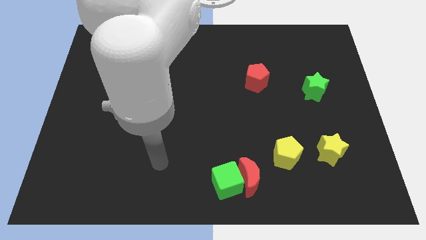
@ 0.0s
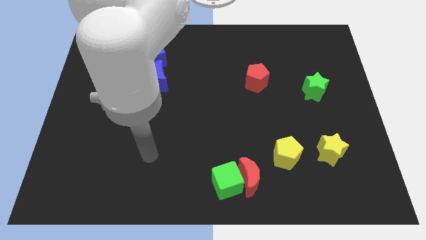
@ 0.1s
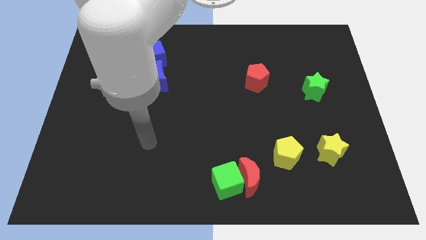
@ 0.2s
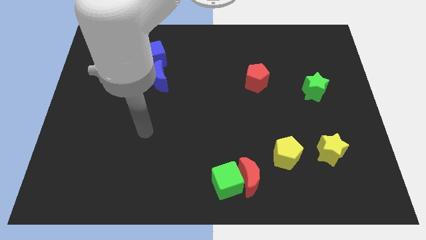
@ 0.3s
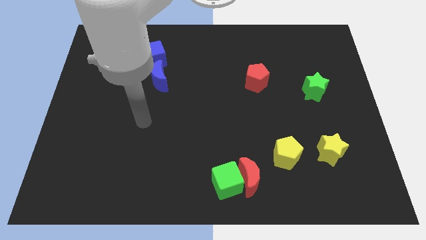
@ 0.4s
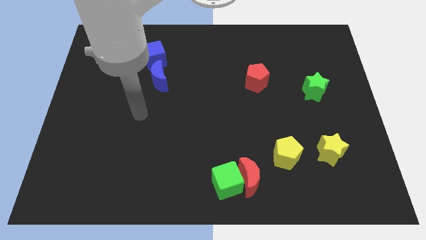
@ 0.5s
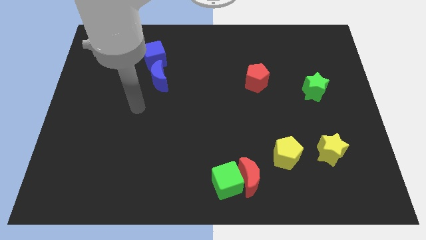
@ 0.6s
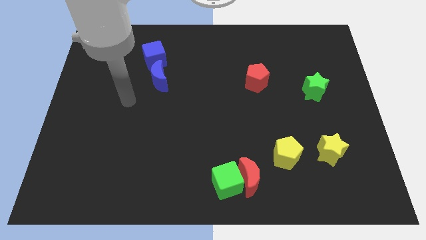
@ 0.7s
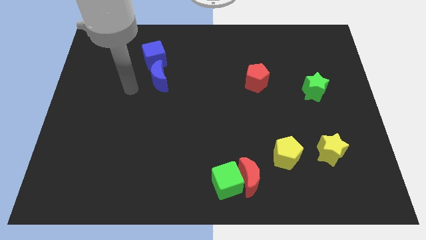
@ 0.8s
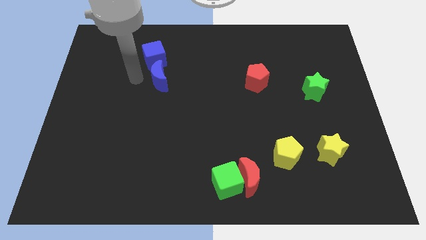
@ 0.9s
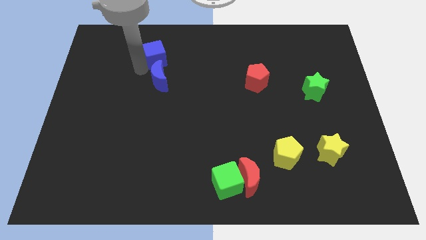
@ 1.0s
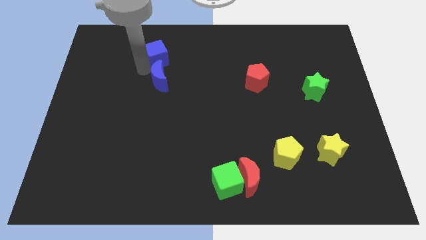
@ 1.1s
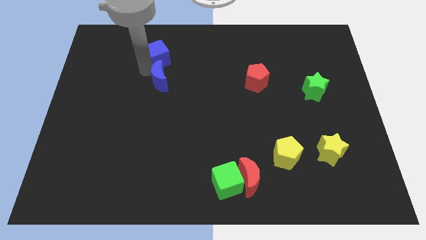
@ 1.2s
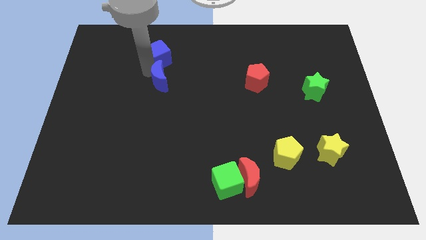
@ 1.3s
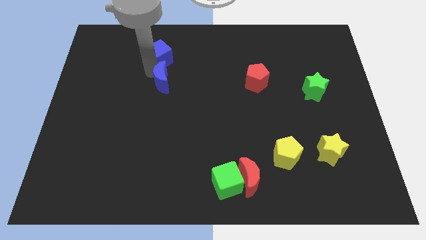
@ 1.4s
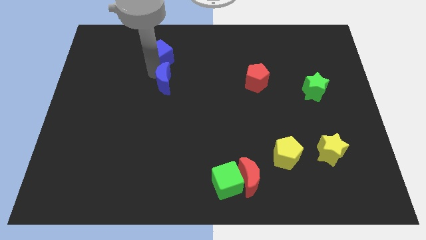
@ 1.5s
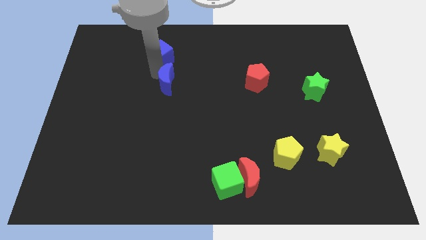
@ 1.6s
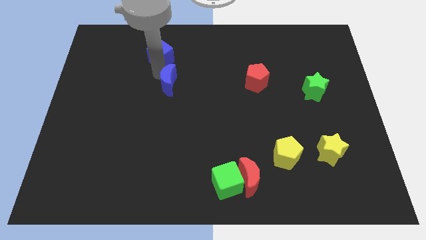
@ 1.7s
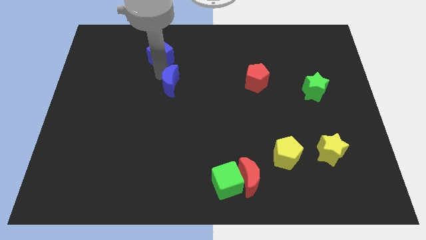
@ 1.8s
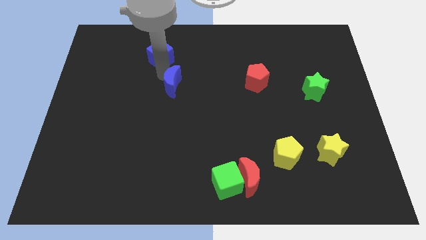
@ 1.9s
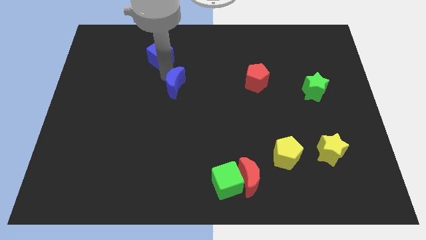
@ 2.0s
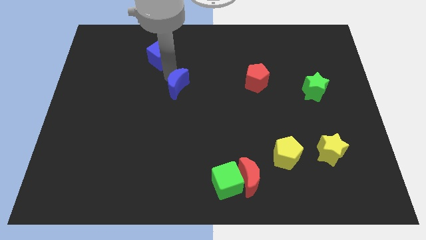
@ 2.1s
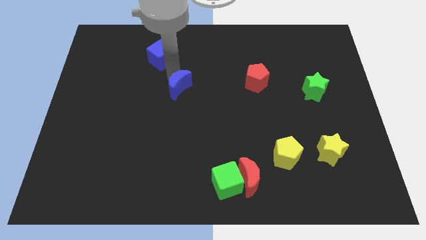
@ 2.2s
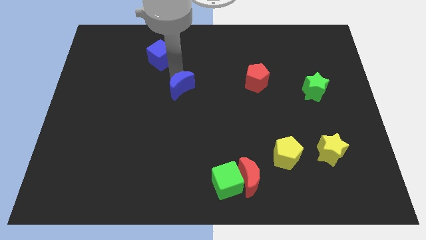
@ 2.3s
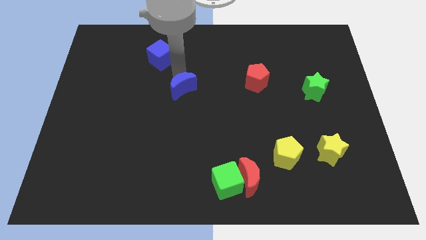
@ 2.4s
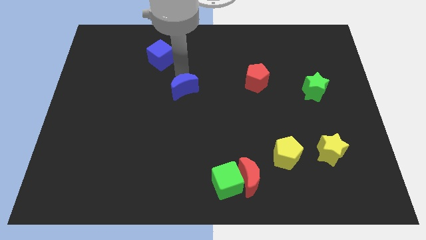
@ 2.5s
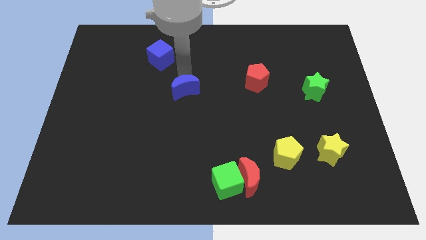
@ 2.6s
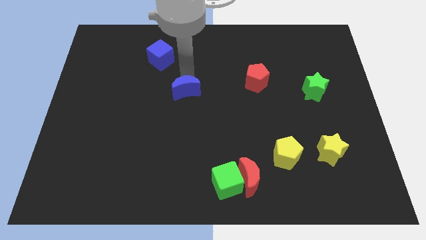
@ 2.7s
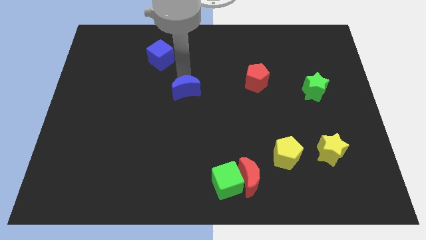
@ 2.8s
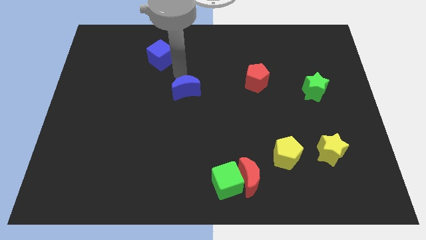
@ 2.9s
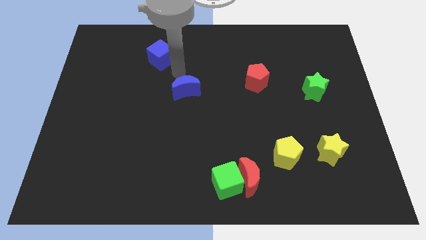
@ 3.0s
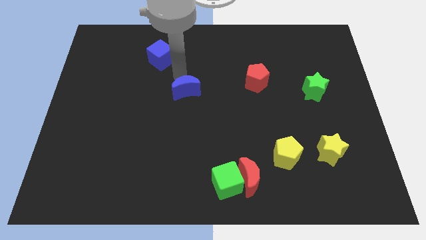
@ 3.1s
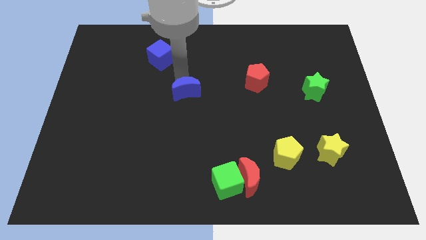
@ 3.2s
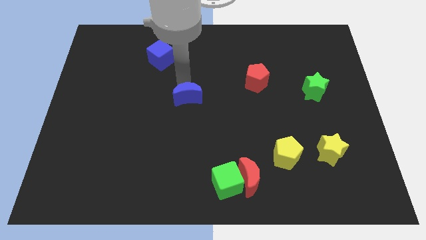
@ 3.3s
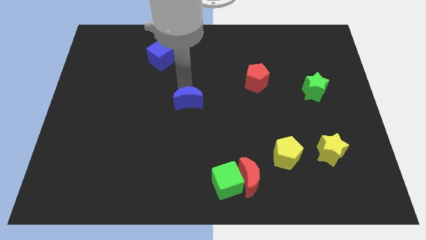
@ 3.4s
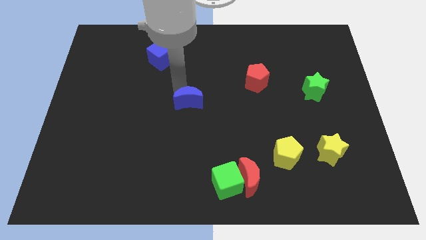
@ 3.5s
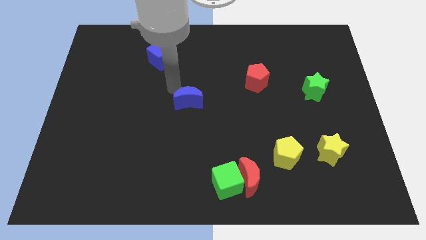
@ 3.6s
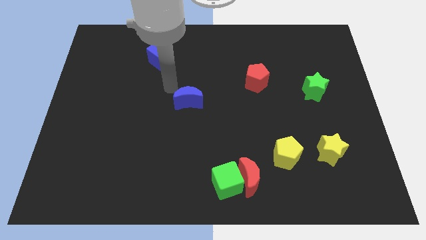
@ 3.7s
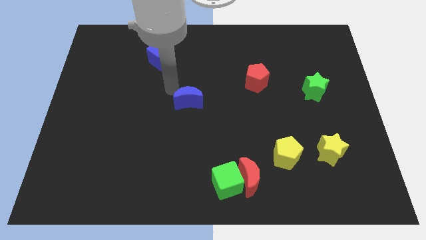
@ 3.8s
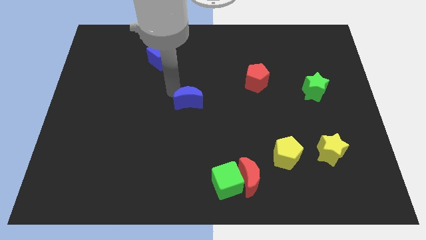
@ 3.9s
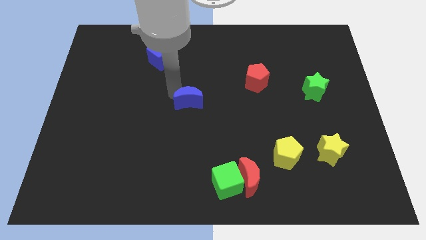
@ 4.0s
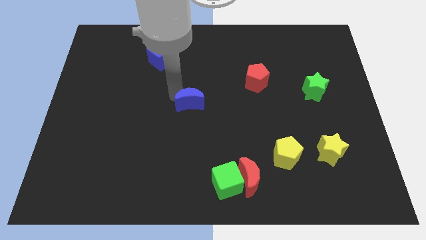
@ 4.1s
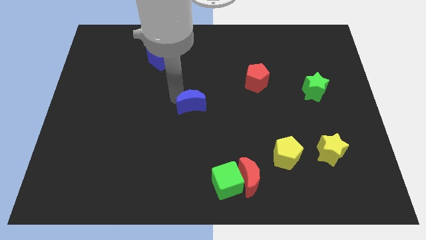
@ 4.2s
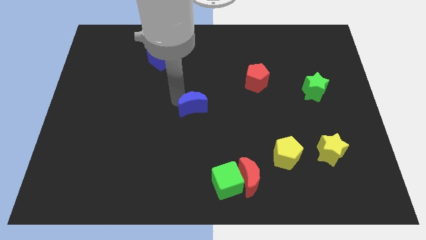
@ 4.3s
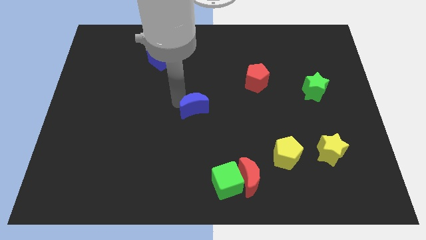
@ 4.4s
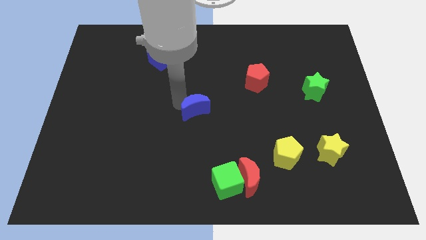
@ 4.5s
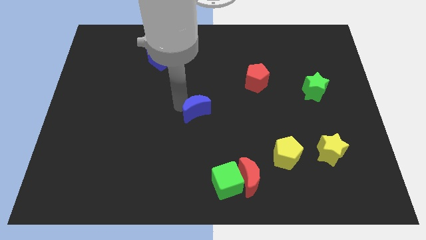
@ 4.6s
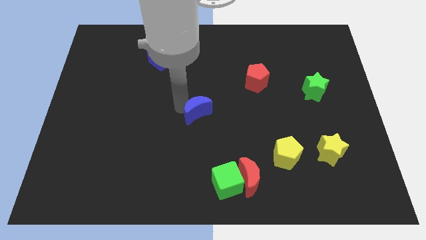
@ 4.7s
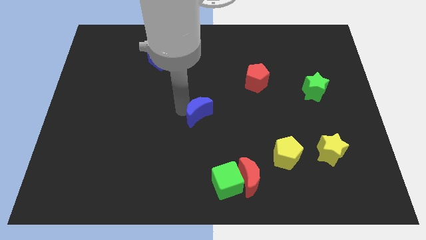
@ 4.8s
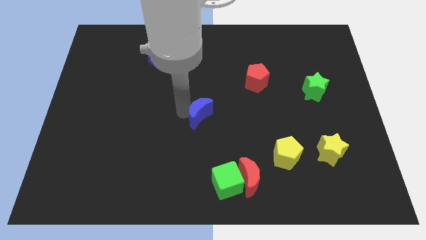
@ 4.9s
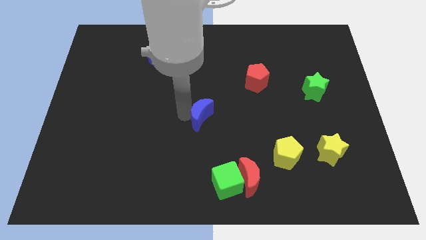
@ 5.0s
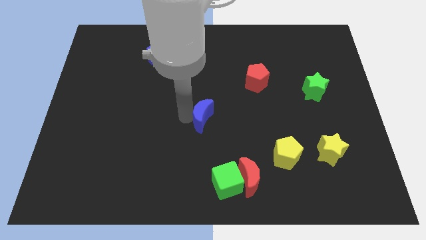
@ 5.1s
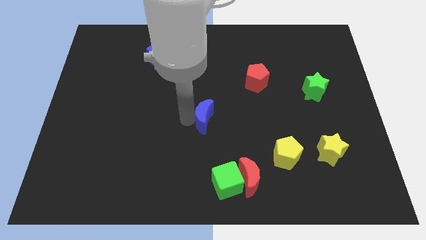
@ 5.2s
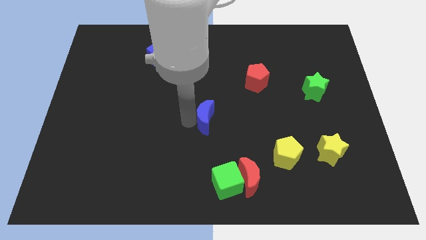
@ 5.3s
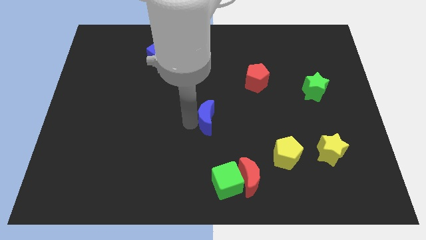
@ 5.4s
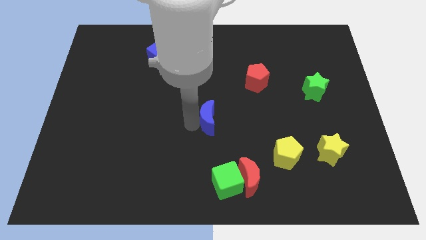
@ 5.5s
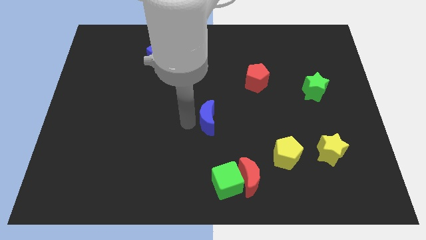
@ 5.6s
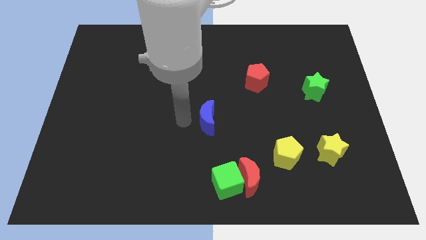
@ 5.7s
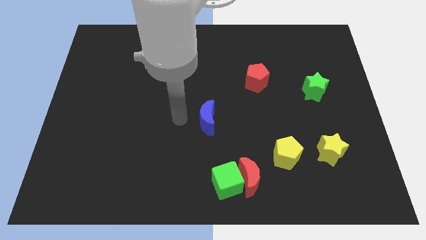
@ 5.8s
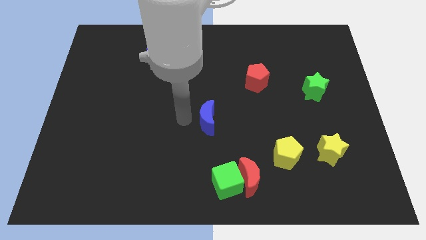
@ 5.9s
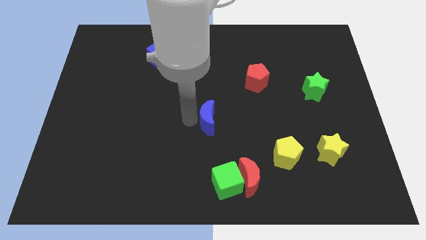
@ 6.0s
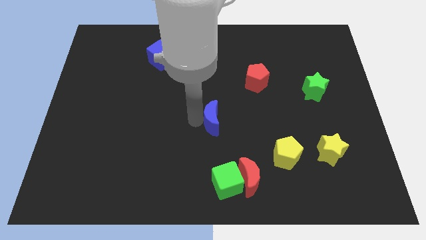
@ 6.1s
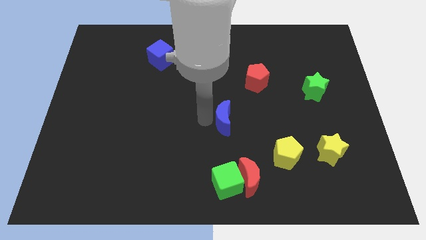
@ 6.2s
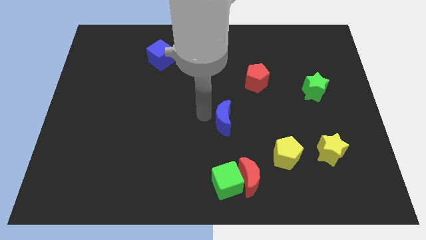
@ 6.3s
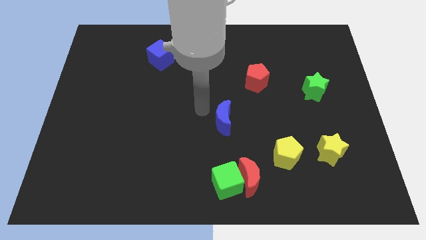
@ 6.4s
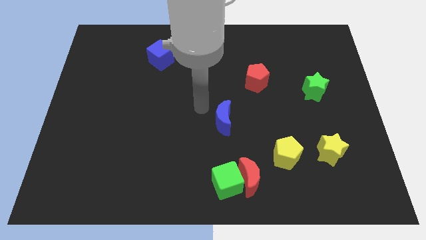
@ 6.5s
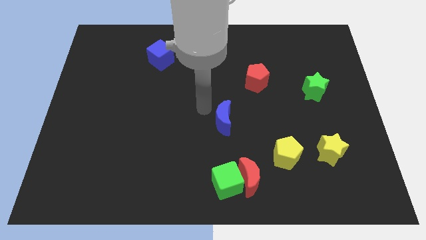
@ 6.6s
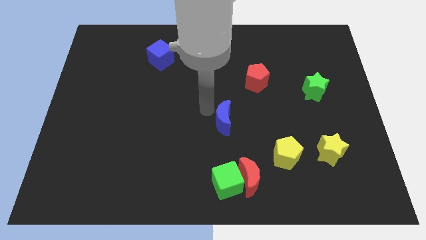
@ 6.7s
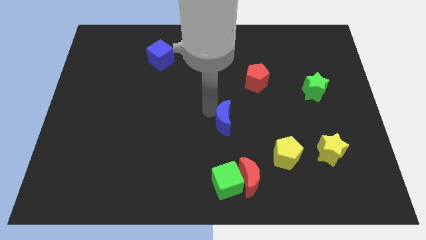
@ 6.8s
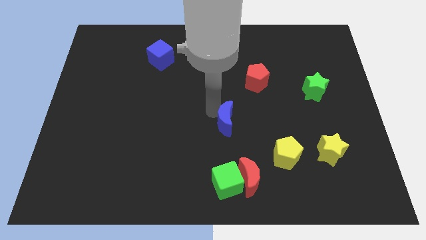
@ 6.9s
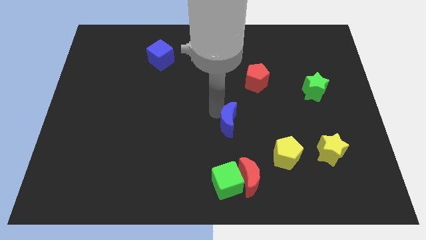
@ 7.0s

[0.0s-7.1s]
push the blue moon above the red moon

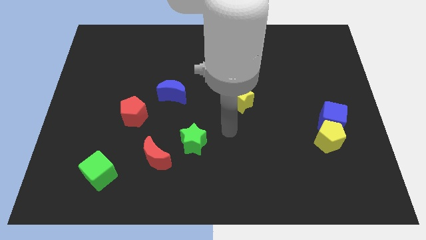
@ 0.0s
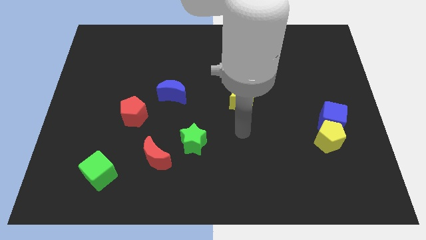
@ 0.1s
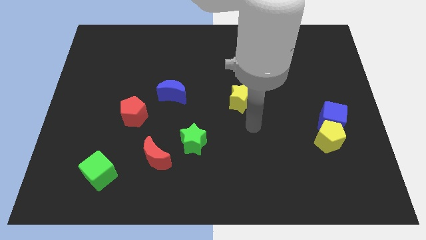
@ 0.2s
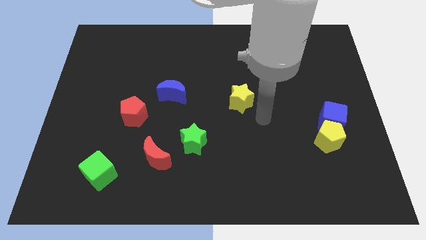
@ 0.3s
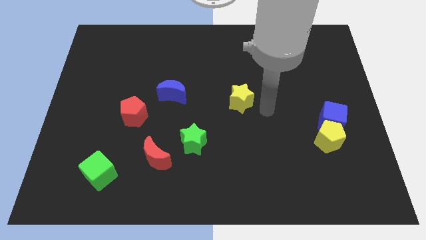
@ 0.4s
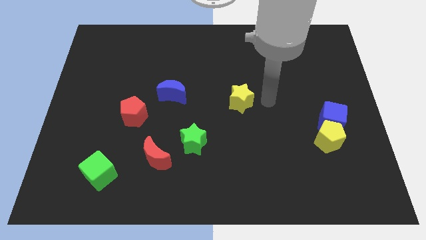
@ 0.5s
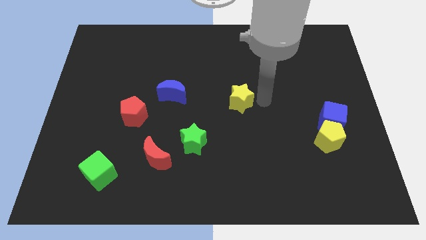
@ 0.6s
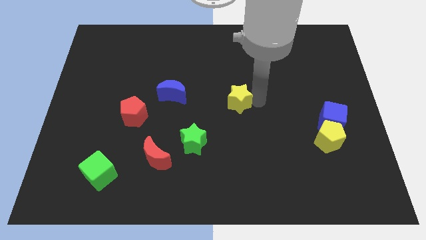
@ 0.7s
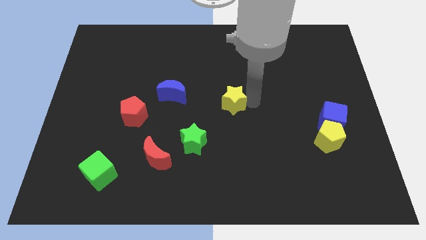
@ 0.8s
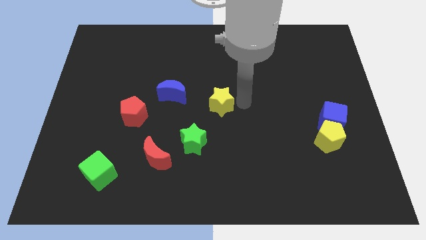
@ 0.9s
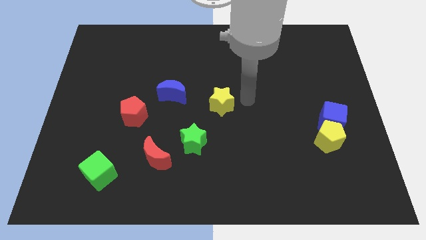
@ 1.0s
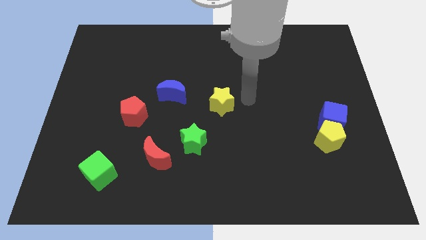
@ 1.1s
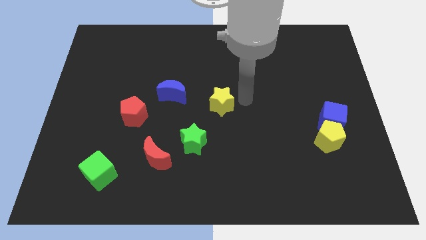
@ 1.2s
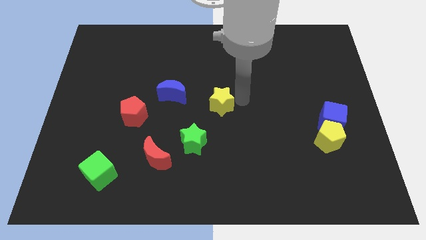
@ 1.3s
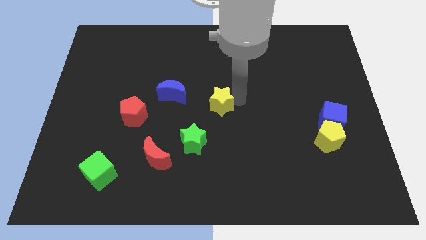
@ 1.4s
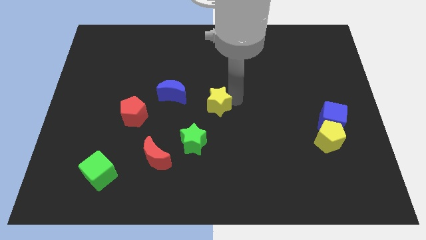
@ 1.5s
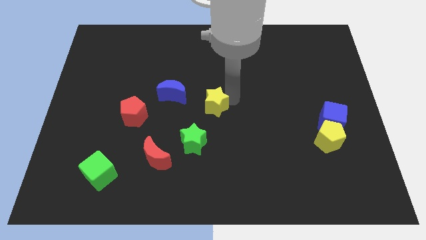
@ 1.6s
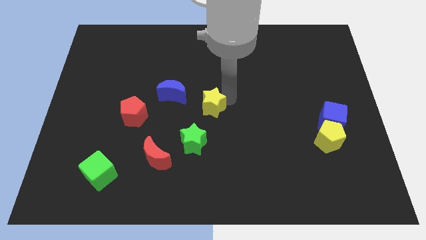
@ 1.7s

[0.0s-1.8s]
push the yellow star to the bottom right side of the blue moon
